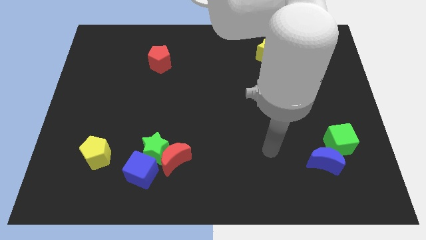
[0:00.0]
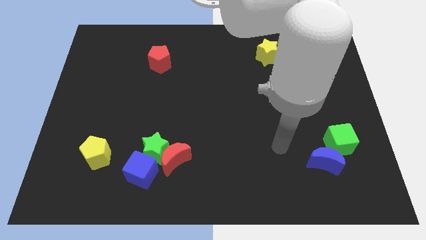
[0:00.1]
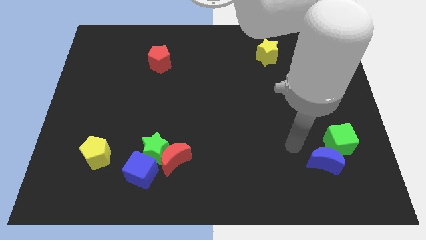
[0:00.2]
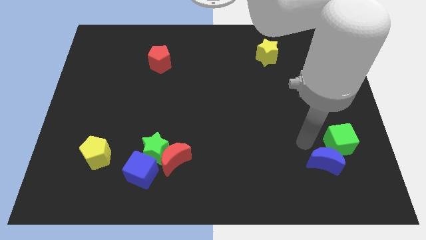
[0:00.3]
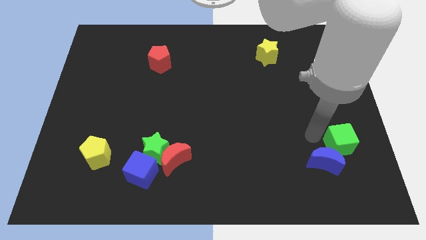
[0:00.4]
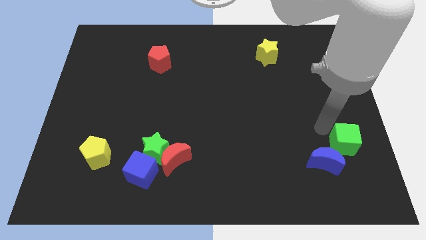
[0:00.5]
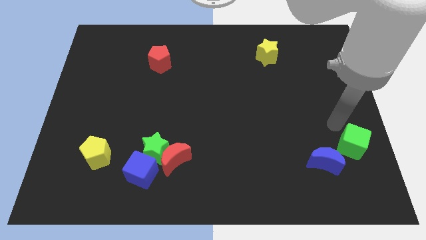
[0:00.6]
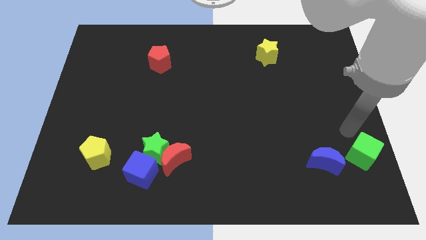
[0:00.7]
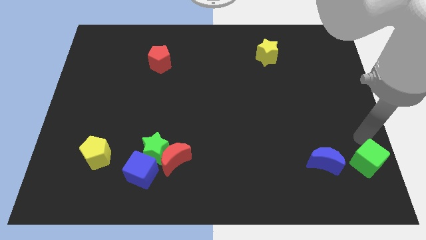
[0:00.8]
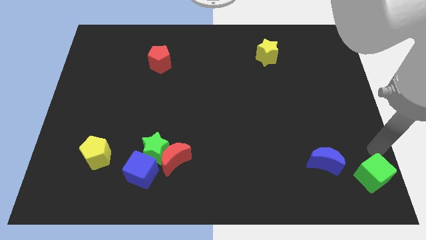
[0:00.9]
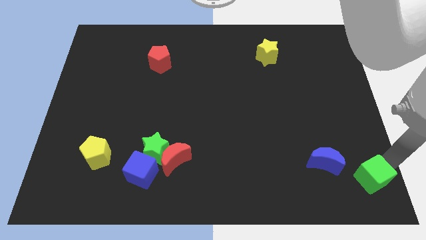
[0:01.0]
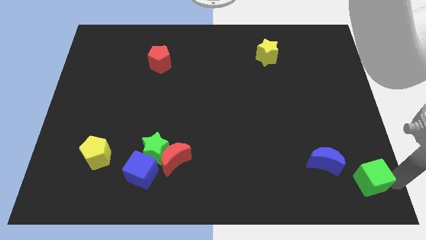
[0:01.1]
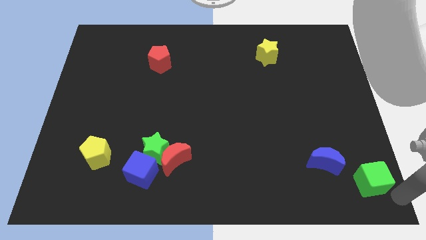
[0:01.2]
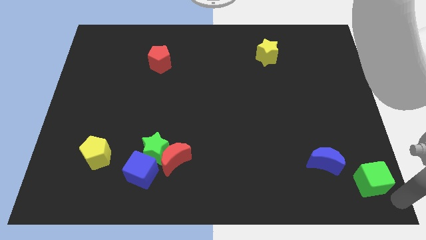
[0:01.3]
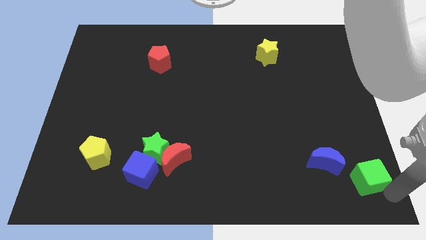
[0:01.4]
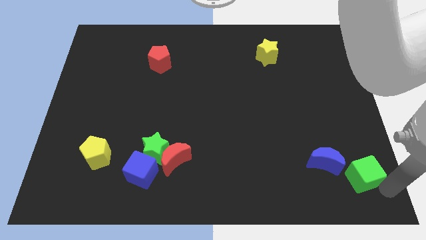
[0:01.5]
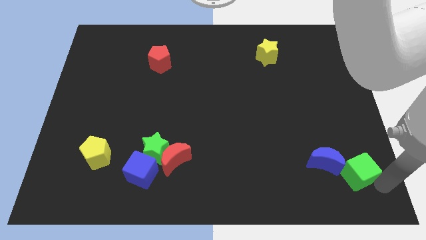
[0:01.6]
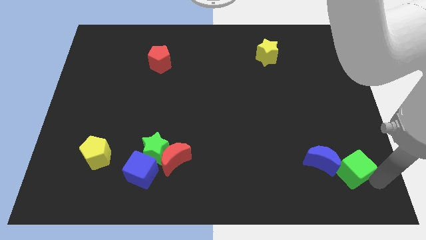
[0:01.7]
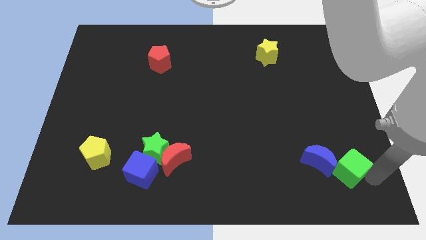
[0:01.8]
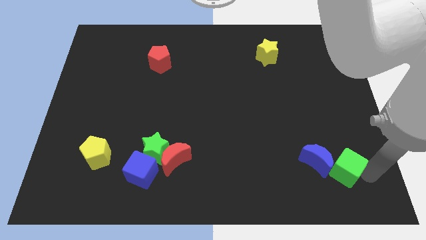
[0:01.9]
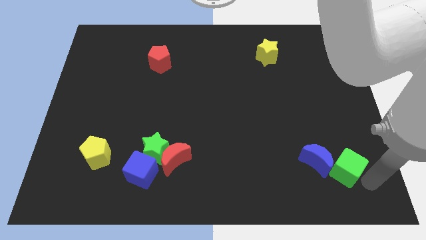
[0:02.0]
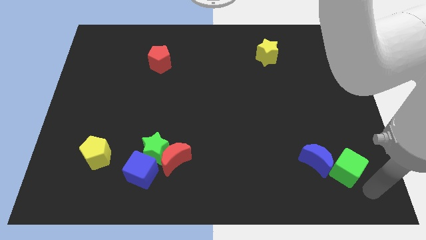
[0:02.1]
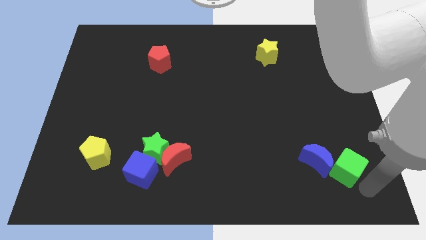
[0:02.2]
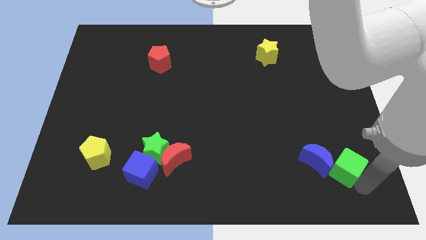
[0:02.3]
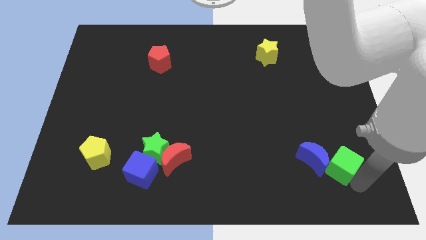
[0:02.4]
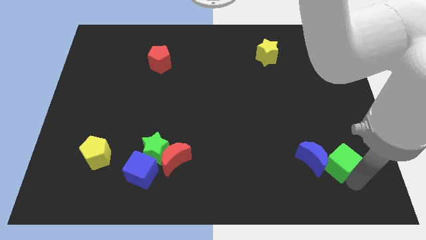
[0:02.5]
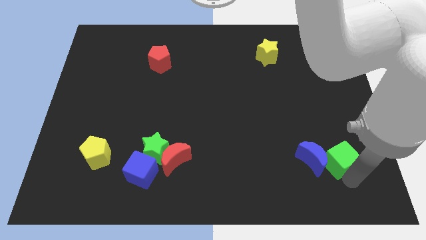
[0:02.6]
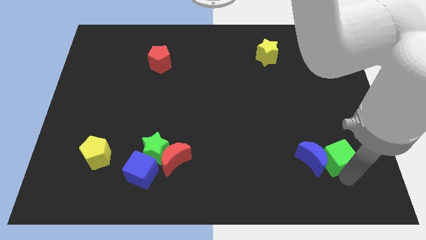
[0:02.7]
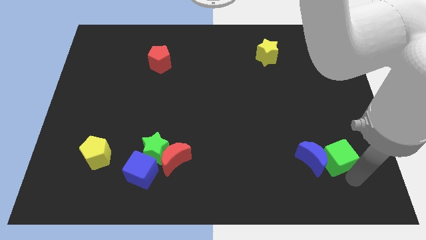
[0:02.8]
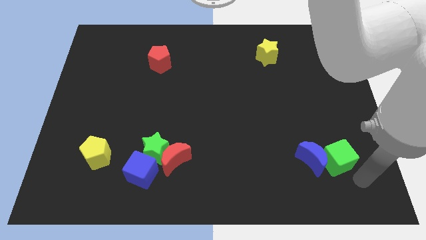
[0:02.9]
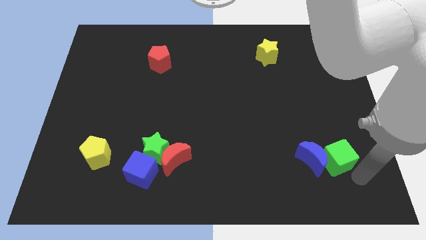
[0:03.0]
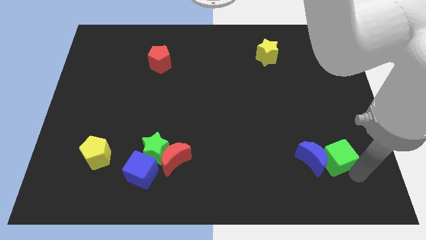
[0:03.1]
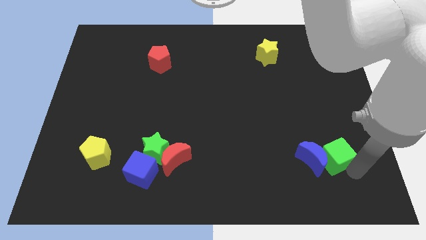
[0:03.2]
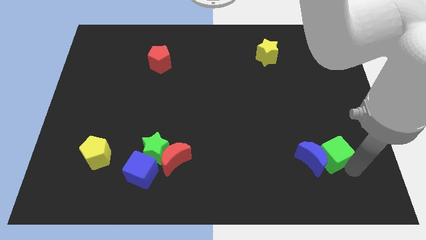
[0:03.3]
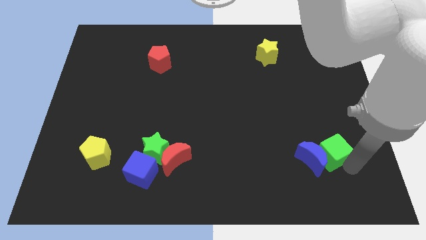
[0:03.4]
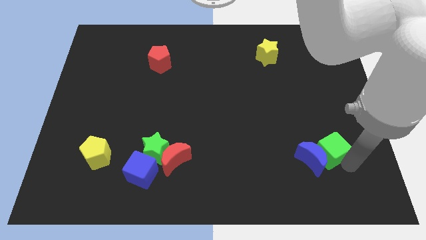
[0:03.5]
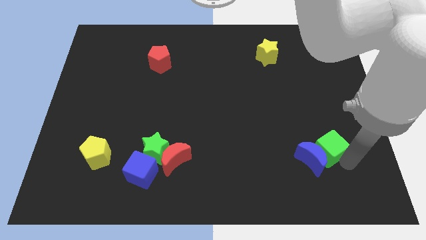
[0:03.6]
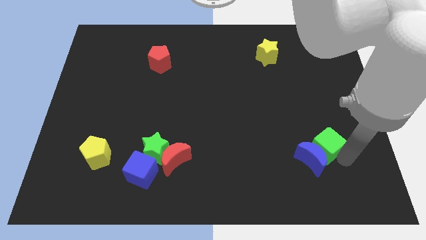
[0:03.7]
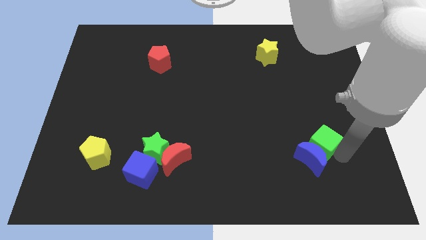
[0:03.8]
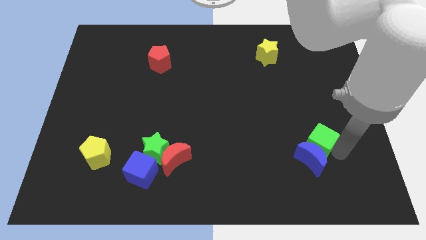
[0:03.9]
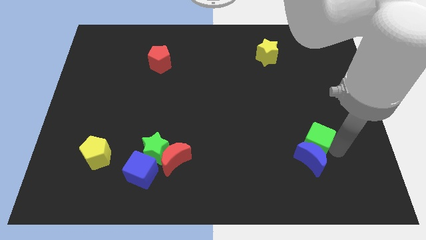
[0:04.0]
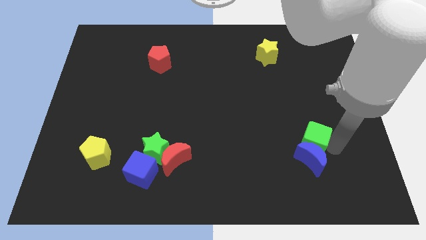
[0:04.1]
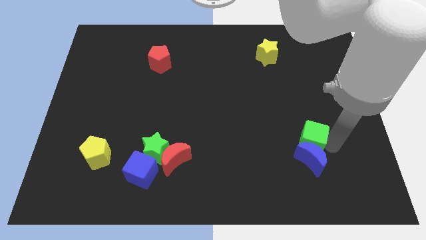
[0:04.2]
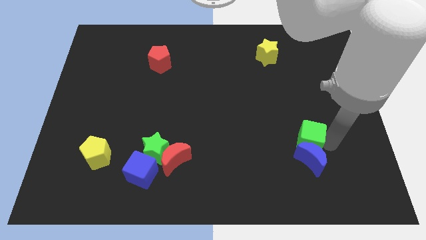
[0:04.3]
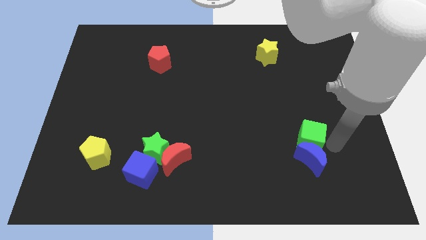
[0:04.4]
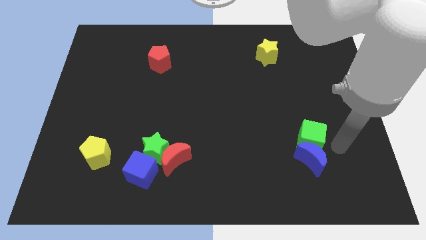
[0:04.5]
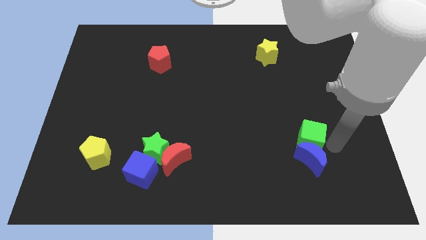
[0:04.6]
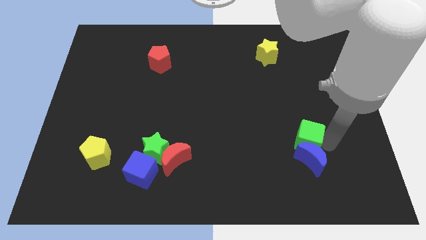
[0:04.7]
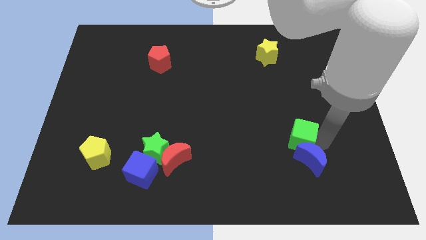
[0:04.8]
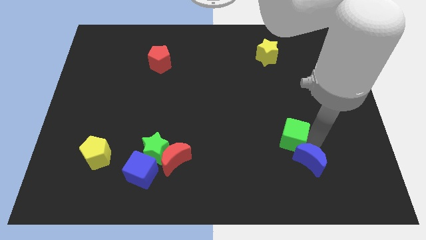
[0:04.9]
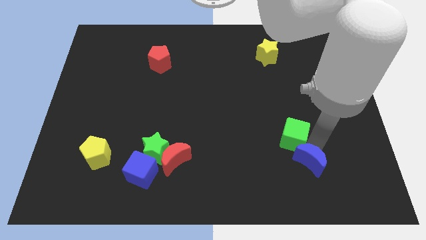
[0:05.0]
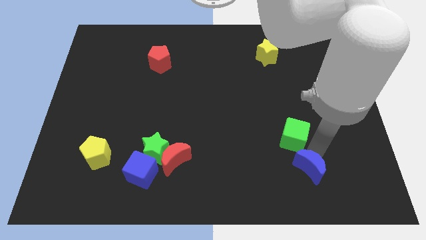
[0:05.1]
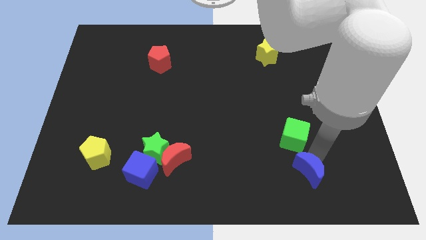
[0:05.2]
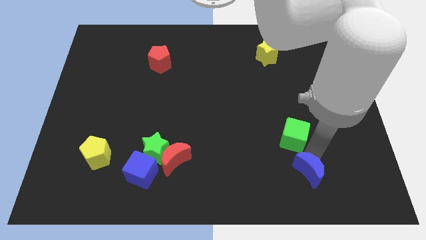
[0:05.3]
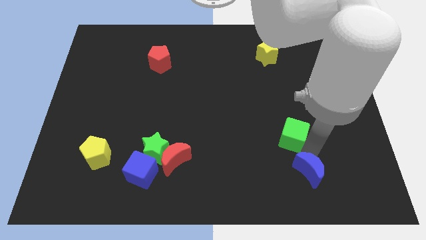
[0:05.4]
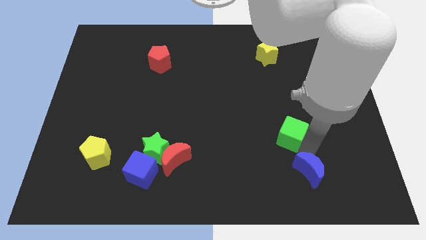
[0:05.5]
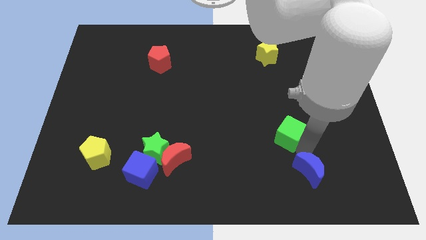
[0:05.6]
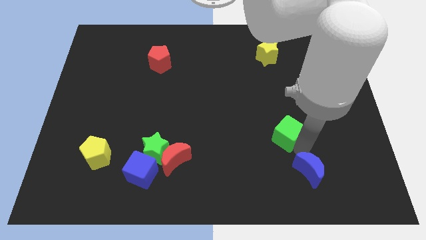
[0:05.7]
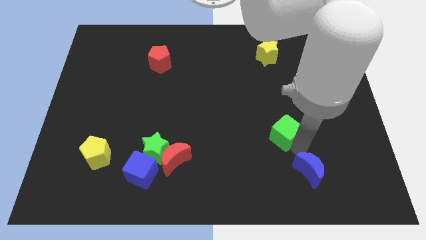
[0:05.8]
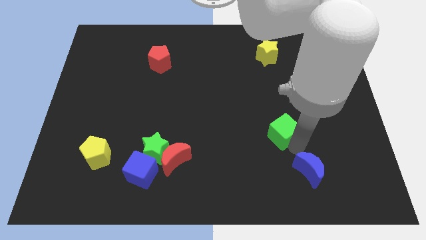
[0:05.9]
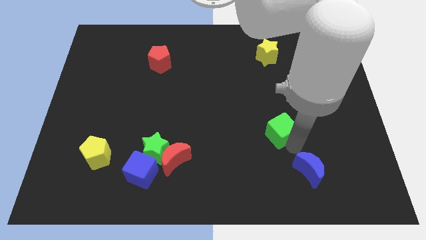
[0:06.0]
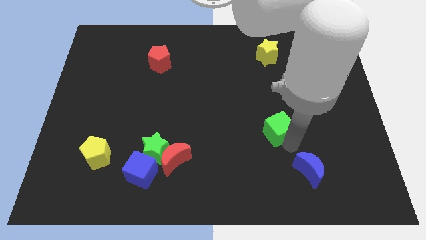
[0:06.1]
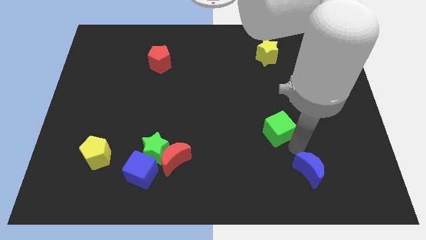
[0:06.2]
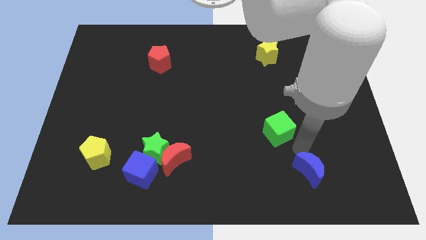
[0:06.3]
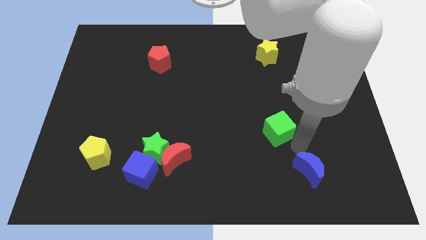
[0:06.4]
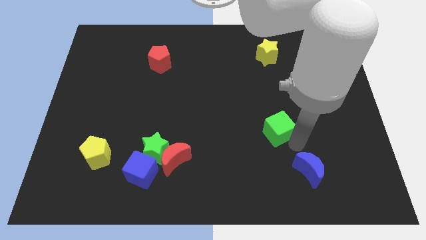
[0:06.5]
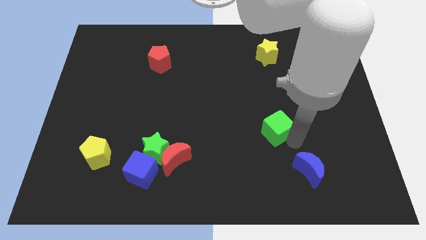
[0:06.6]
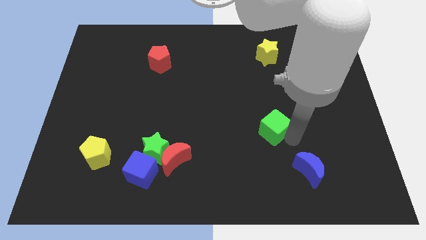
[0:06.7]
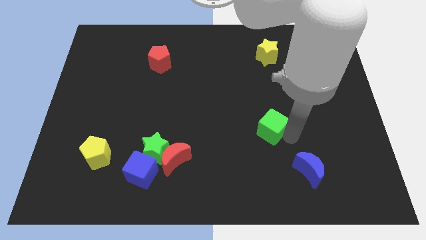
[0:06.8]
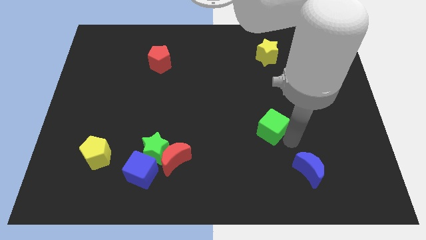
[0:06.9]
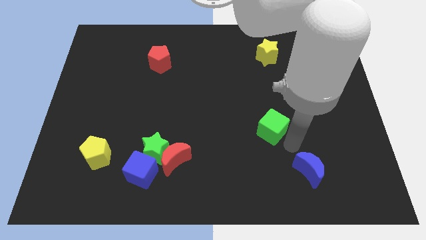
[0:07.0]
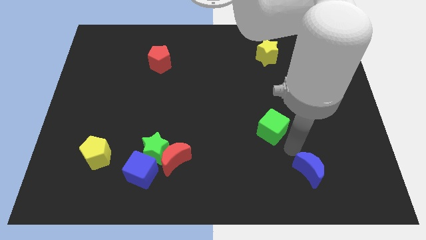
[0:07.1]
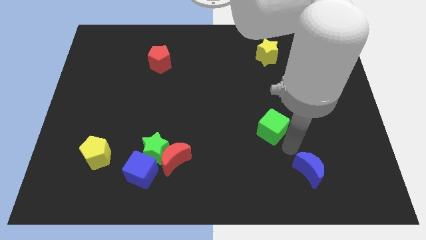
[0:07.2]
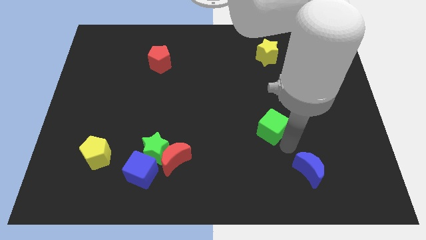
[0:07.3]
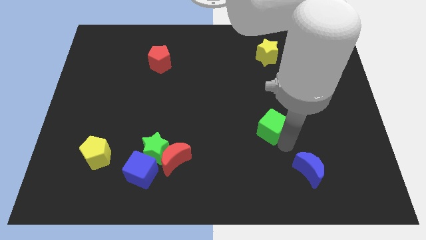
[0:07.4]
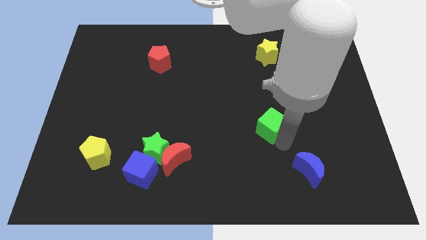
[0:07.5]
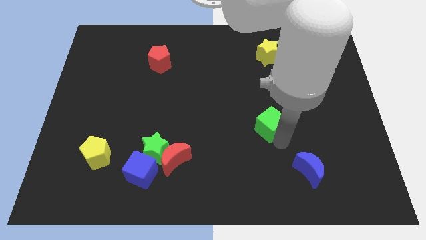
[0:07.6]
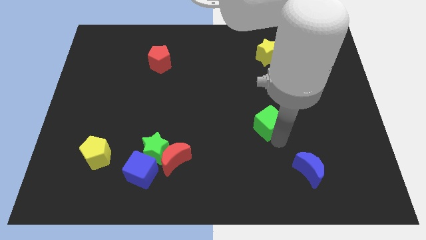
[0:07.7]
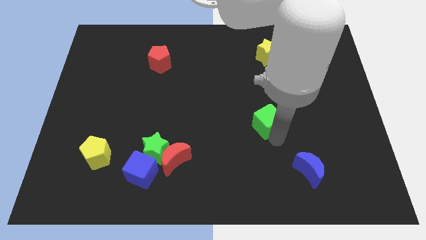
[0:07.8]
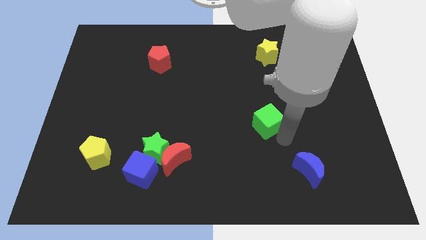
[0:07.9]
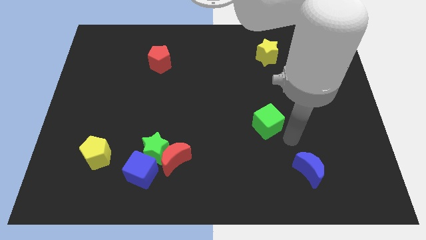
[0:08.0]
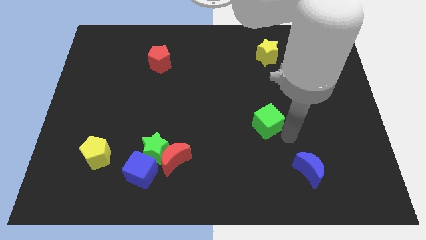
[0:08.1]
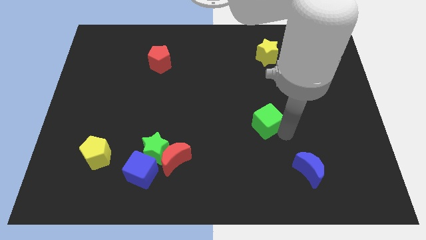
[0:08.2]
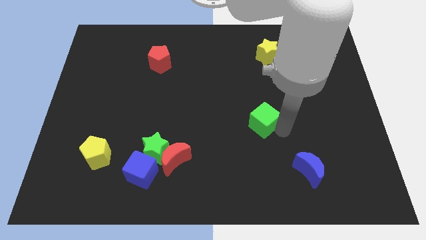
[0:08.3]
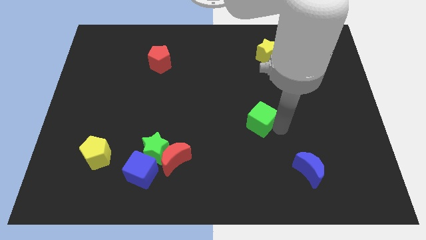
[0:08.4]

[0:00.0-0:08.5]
put the green cube to the middle of the board
